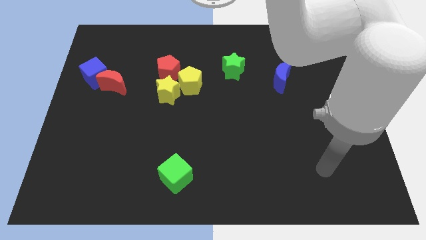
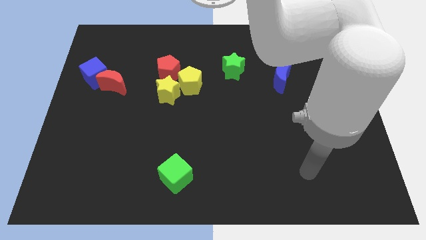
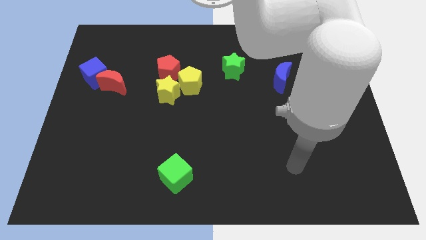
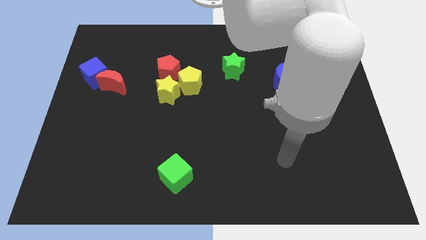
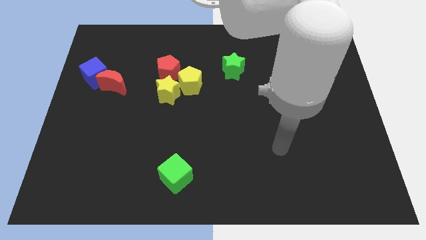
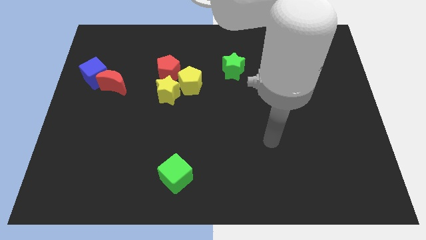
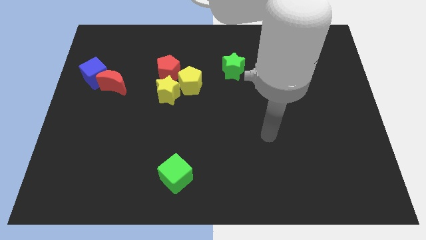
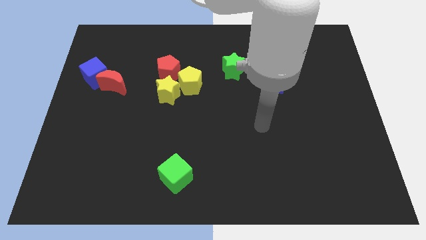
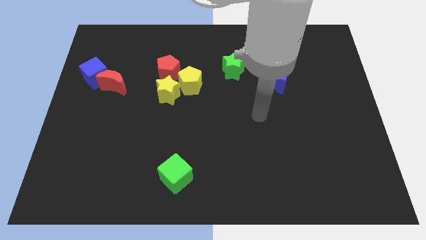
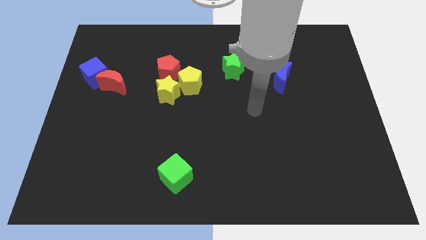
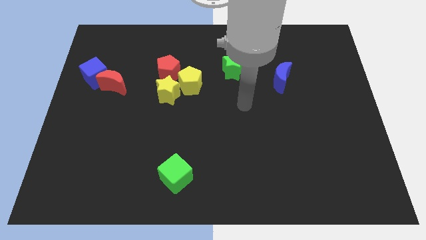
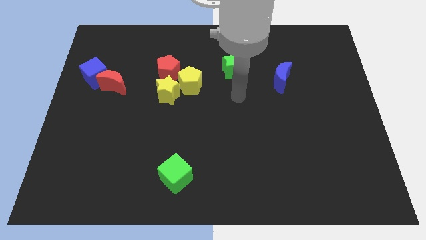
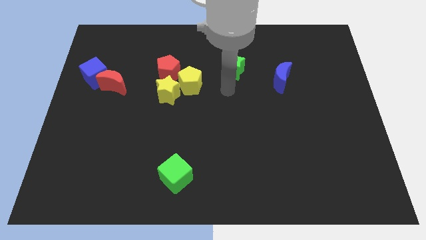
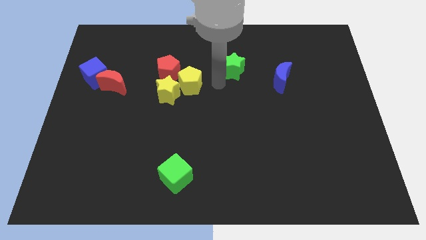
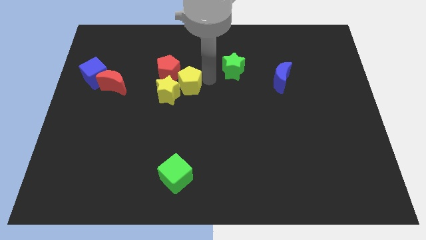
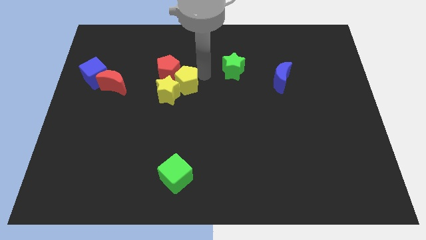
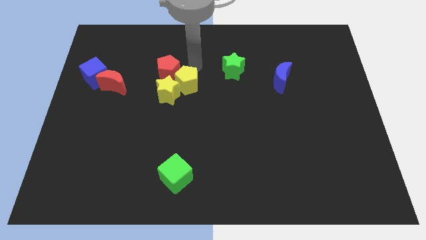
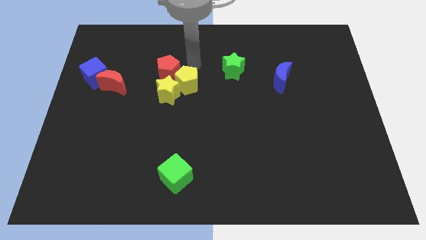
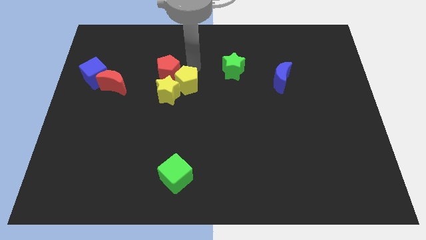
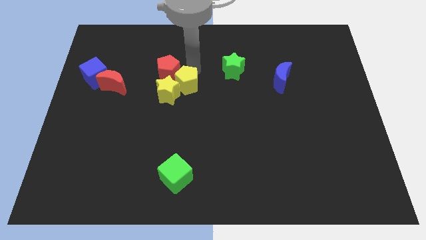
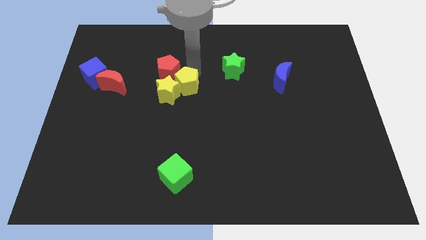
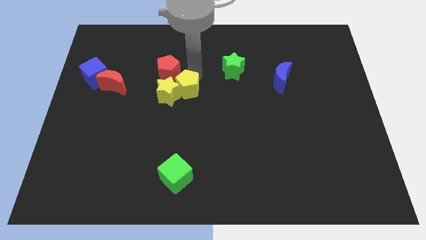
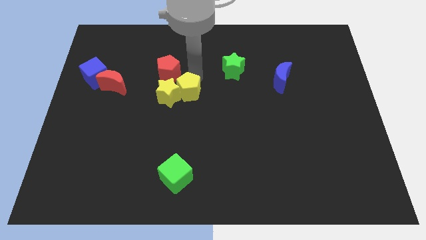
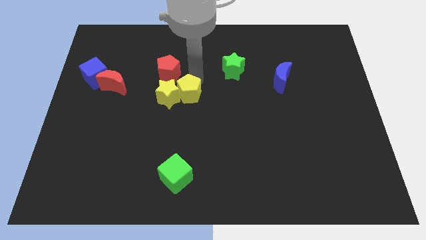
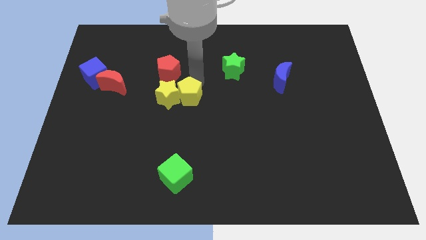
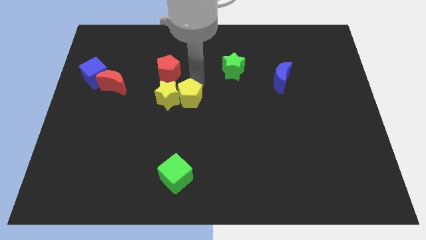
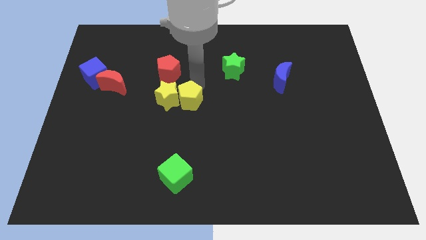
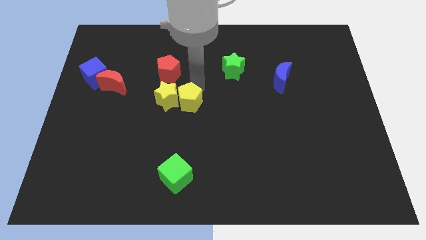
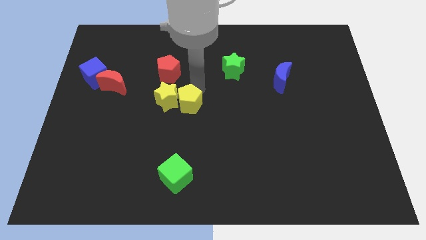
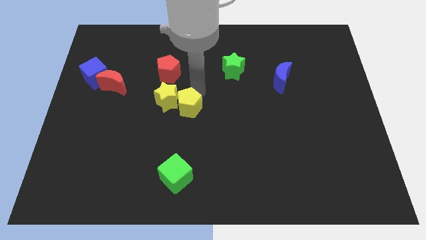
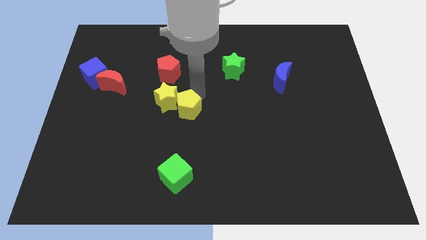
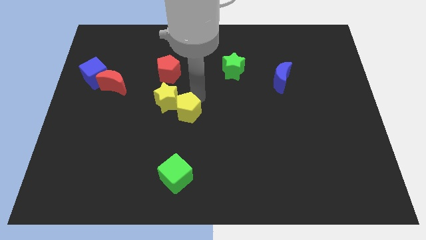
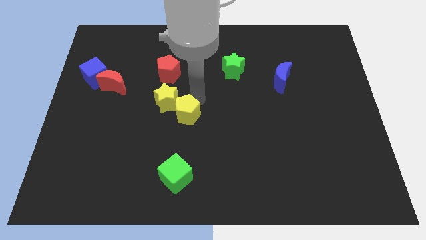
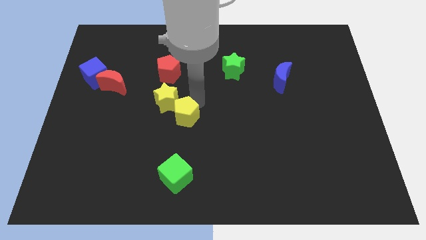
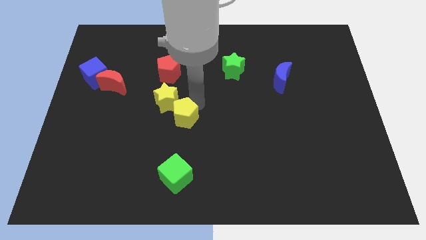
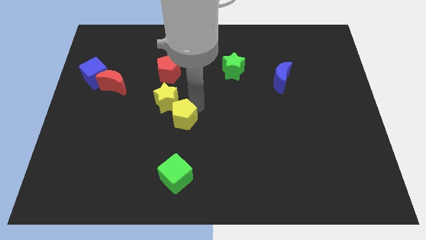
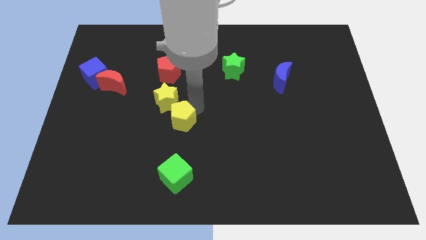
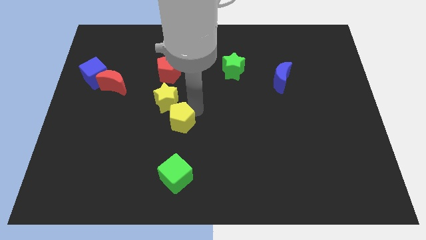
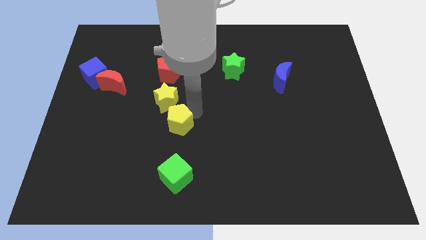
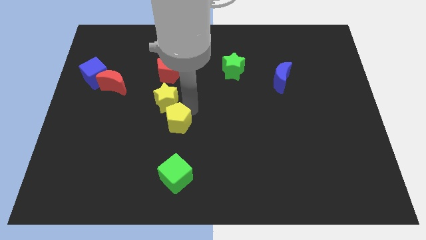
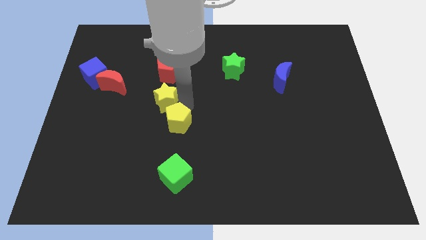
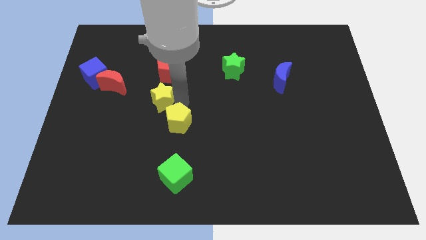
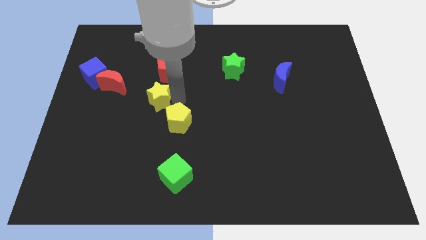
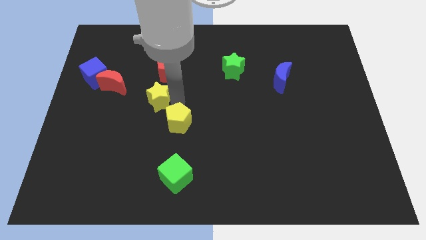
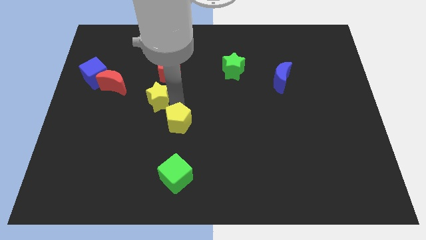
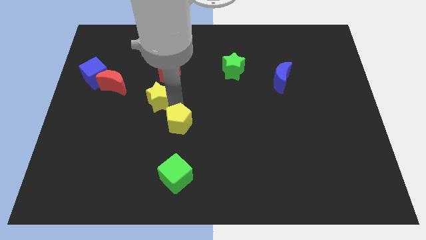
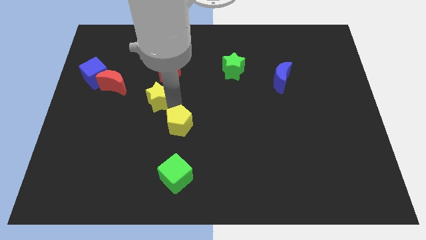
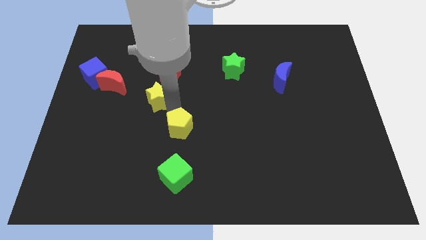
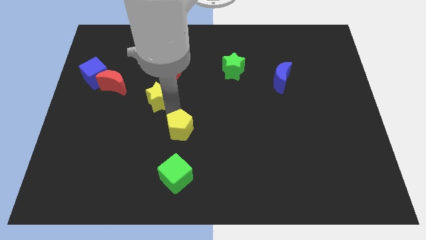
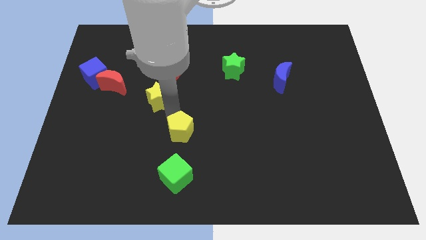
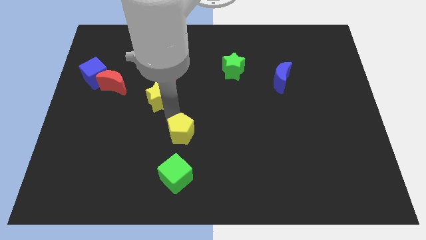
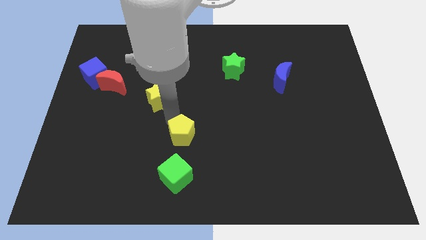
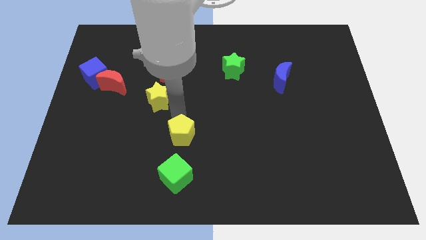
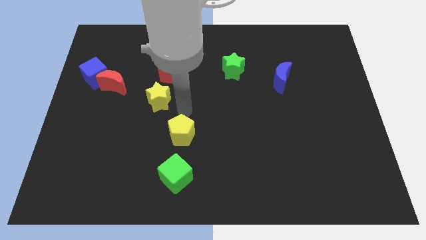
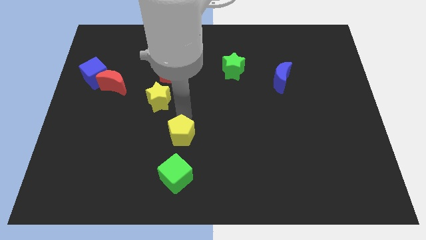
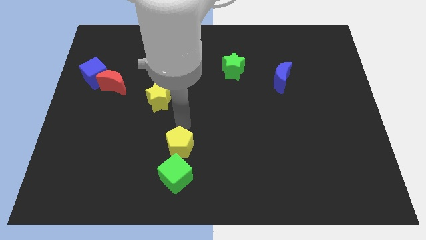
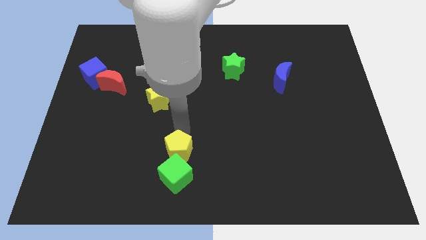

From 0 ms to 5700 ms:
slide the yellow pentagon close to the green cube

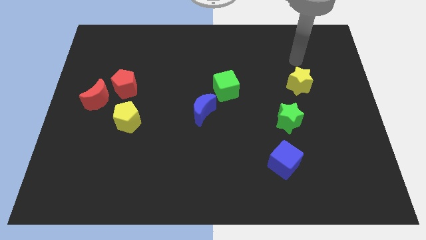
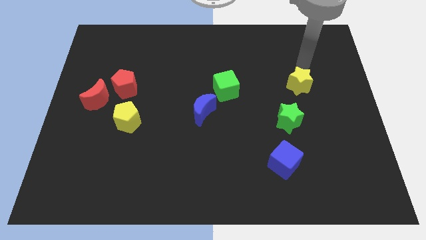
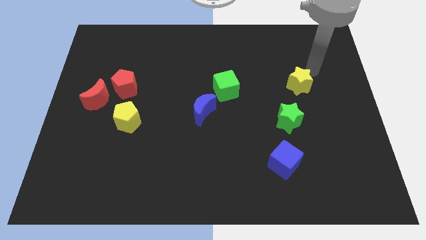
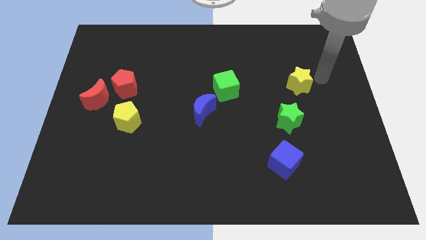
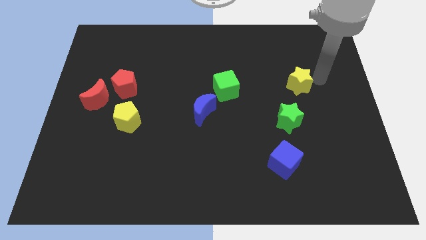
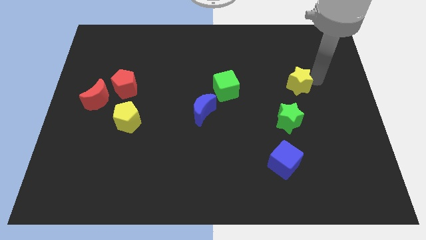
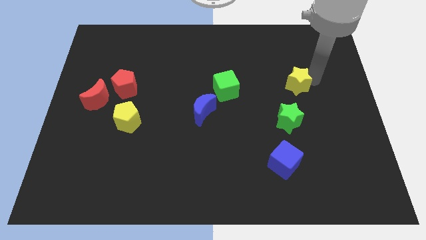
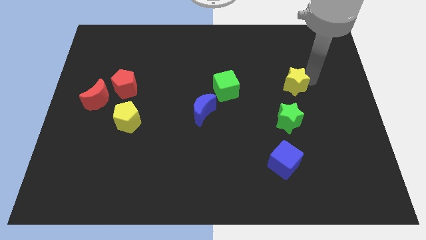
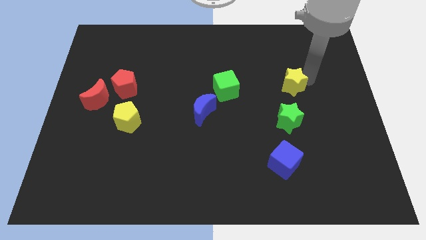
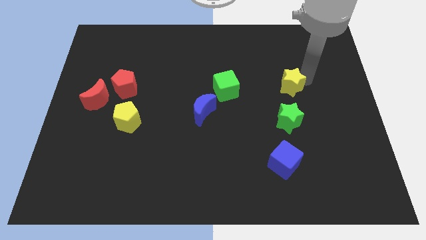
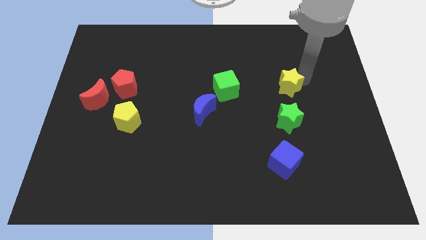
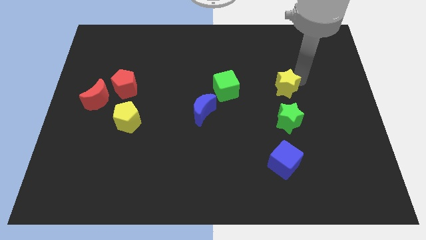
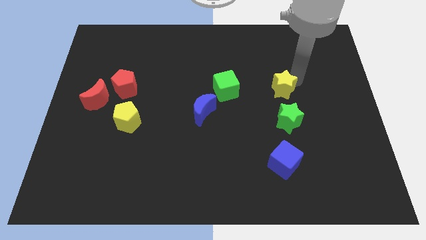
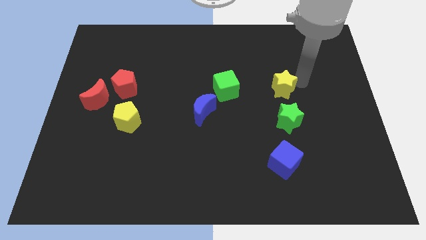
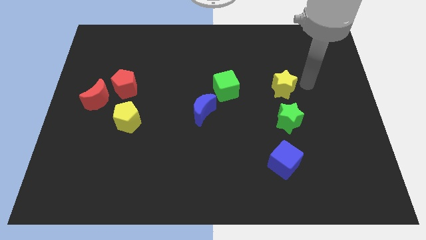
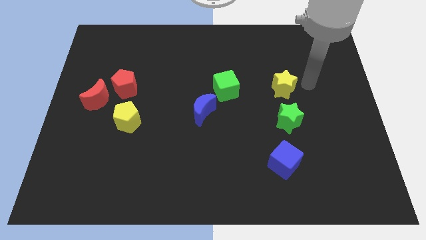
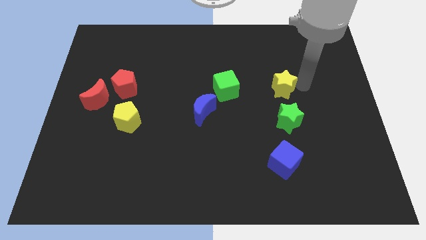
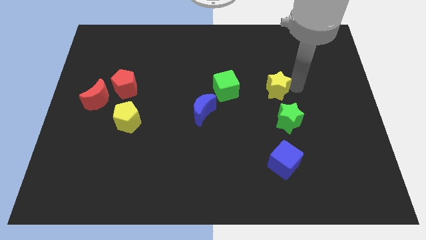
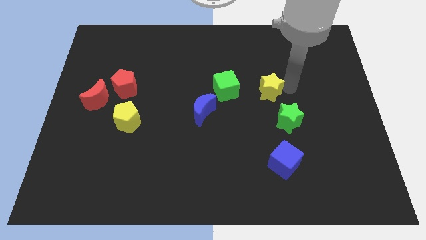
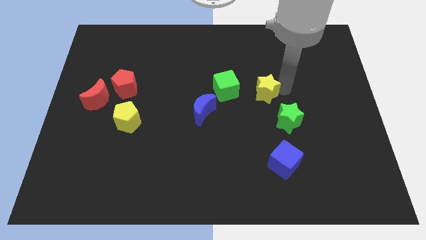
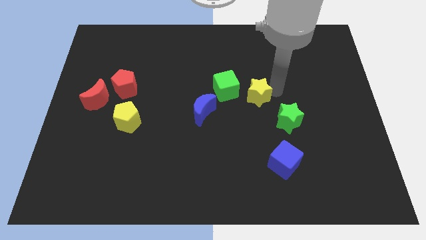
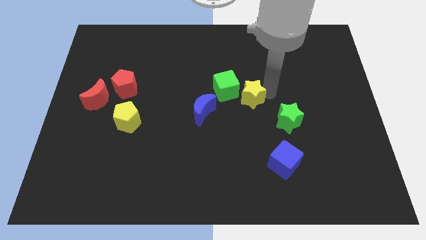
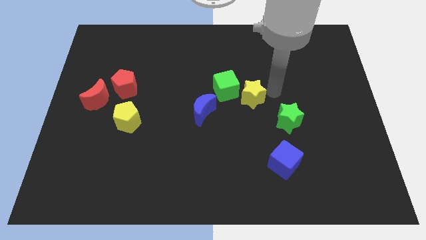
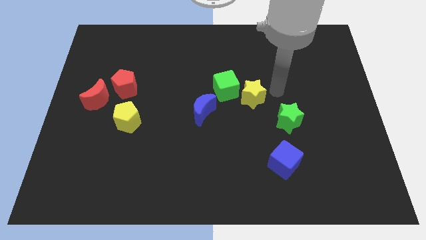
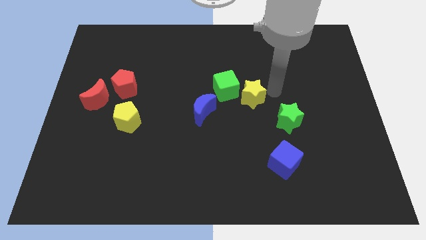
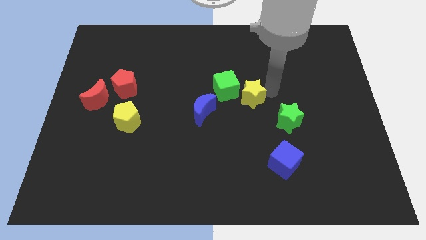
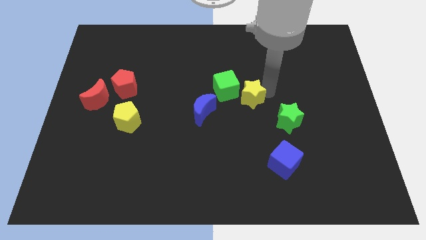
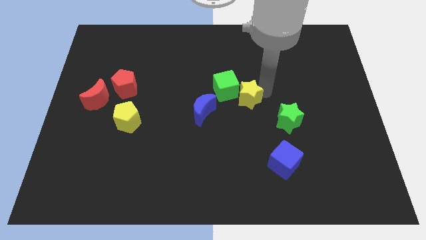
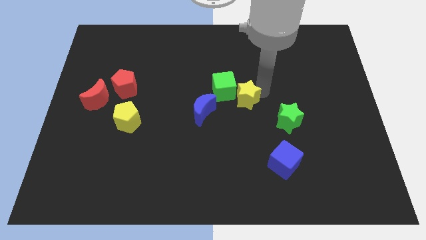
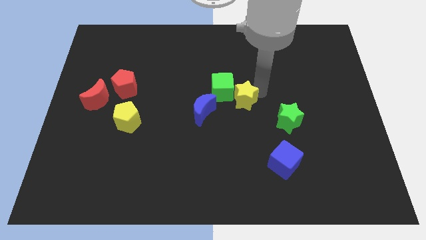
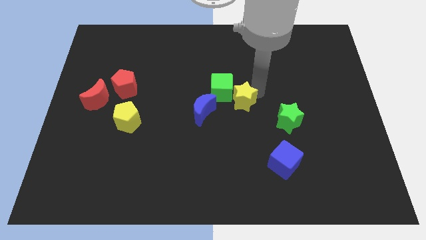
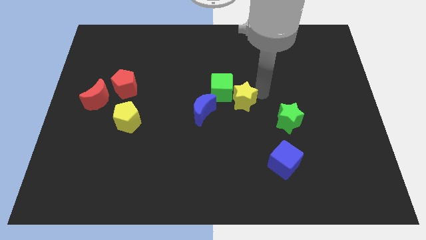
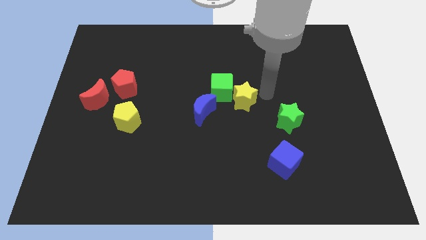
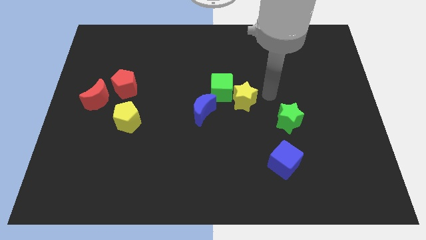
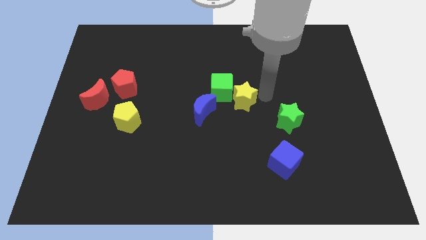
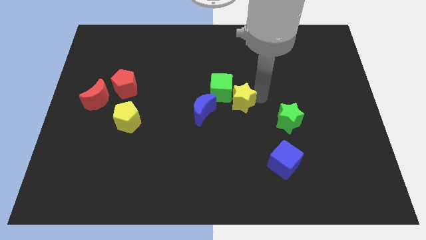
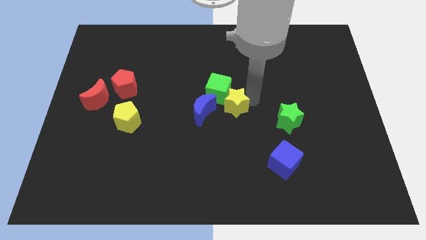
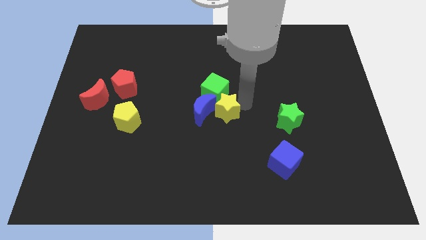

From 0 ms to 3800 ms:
move the yellow star to the blue moon
